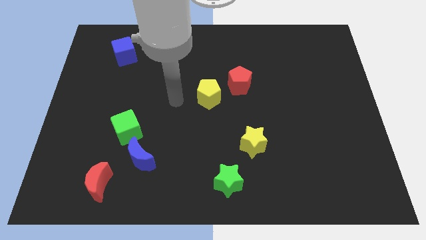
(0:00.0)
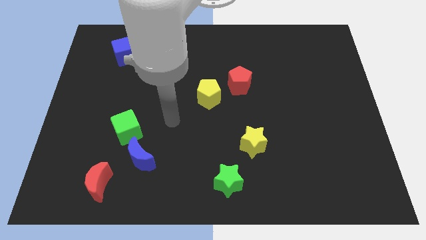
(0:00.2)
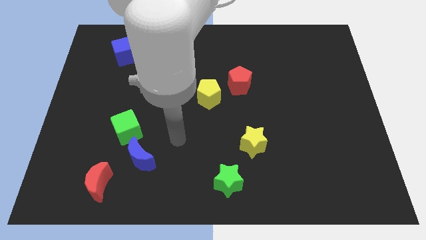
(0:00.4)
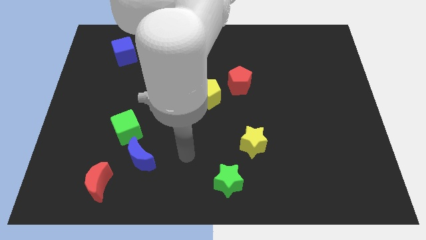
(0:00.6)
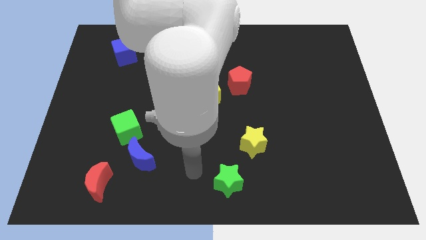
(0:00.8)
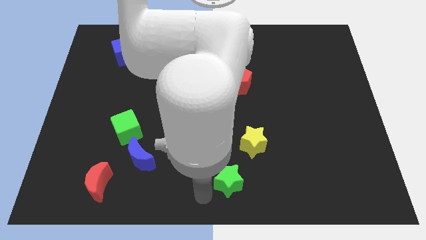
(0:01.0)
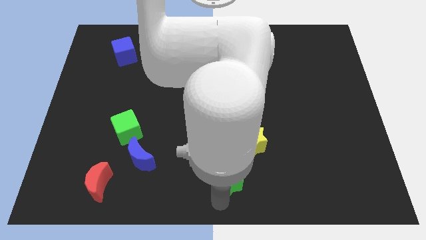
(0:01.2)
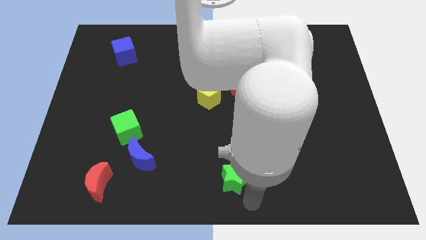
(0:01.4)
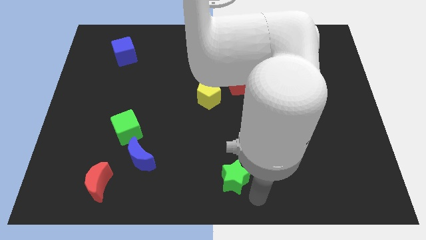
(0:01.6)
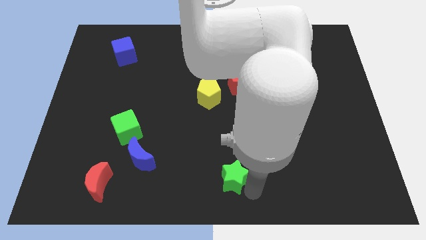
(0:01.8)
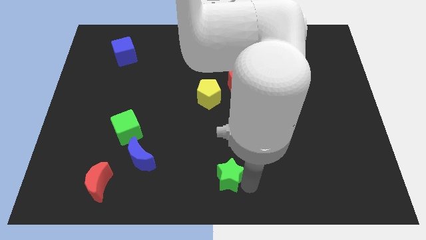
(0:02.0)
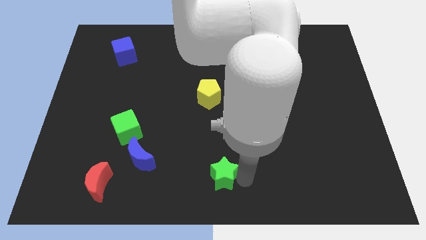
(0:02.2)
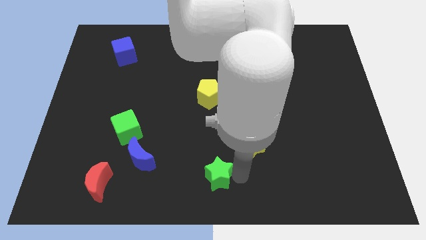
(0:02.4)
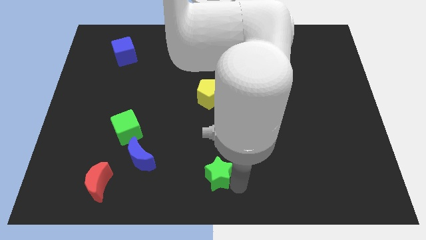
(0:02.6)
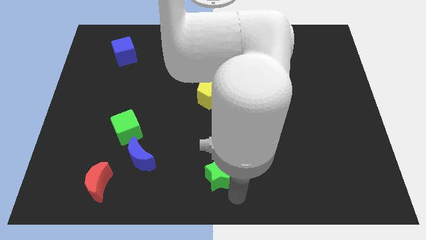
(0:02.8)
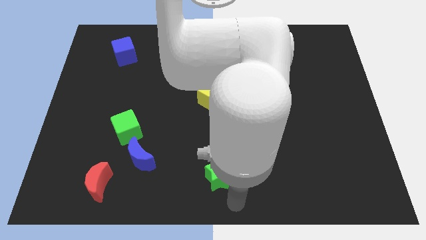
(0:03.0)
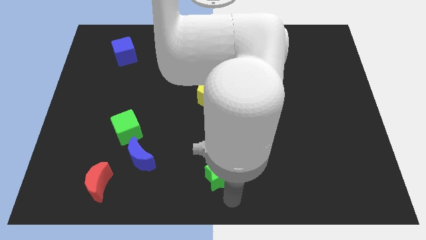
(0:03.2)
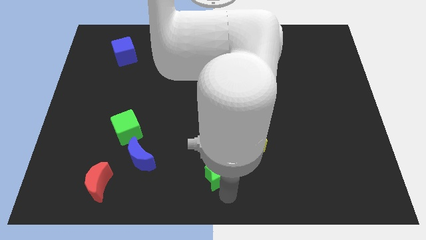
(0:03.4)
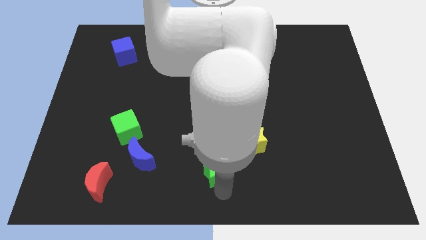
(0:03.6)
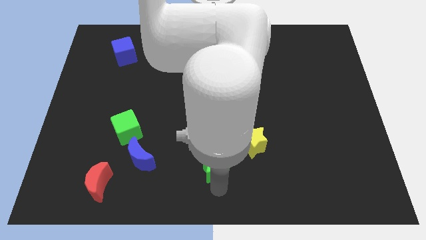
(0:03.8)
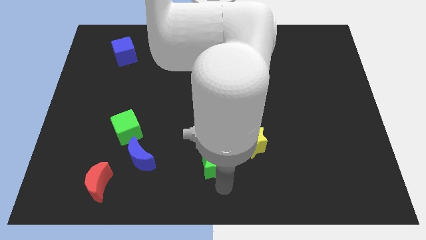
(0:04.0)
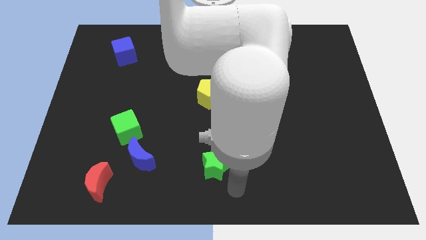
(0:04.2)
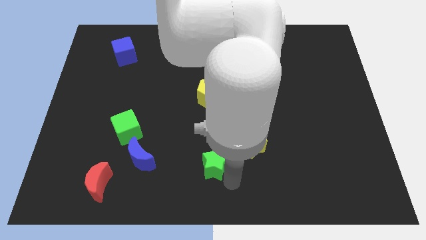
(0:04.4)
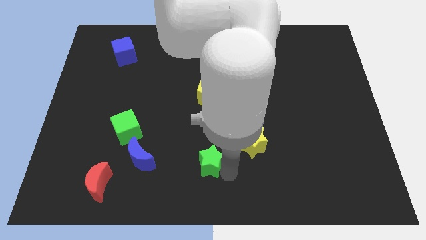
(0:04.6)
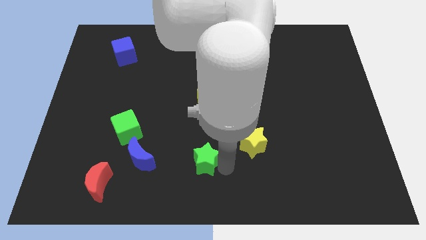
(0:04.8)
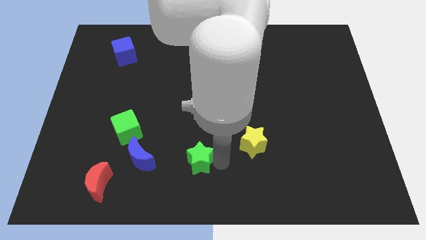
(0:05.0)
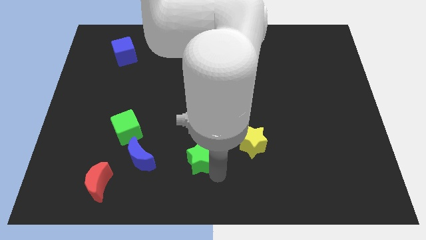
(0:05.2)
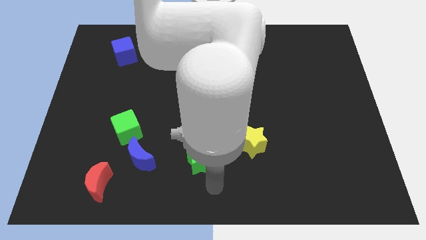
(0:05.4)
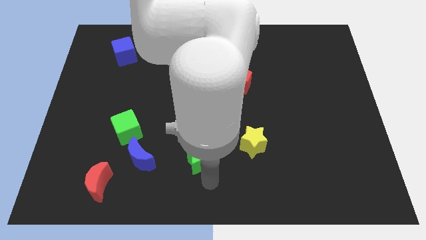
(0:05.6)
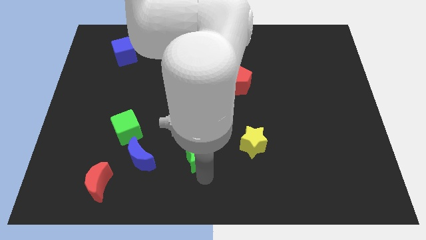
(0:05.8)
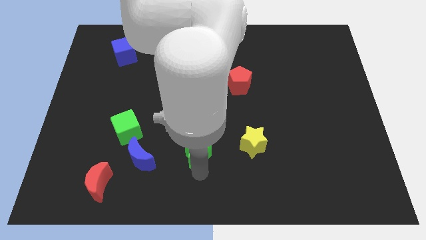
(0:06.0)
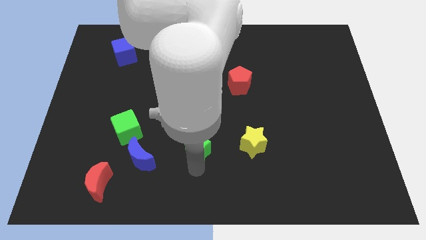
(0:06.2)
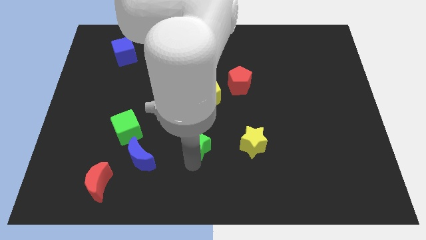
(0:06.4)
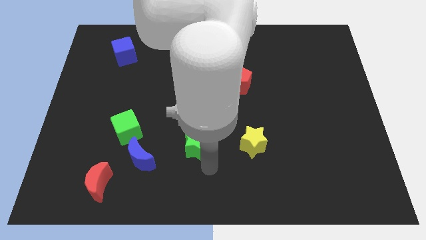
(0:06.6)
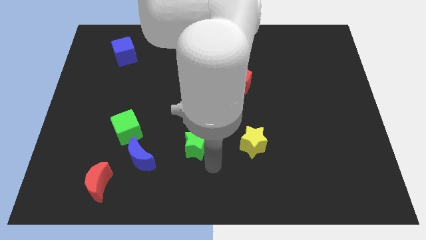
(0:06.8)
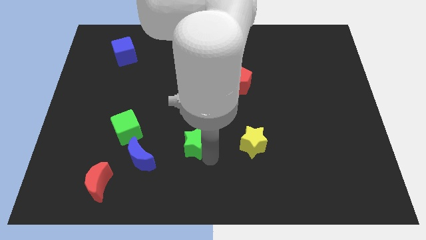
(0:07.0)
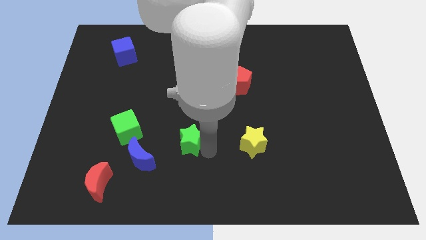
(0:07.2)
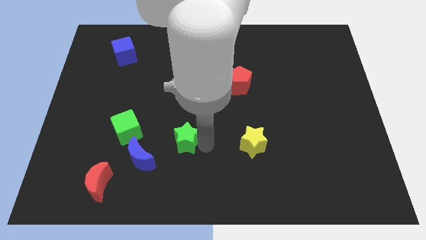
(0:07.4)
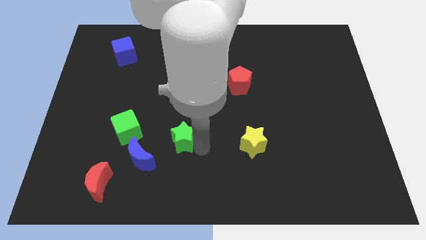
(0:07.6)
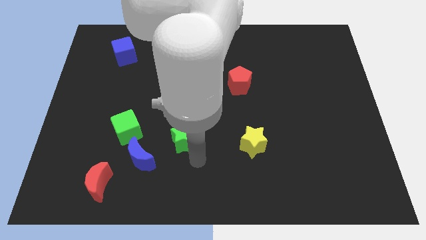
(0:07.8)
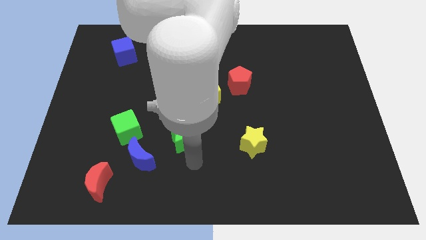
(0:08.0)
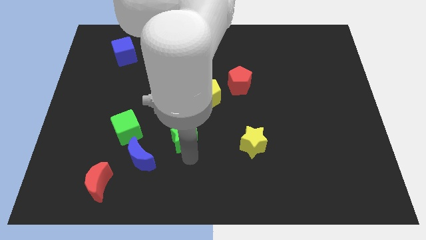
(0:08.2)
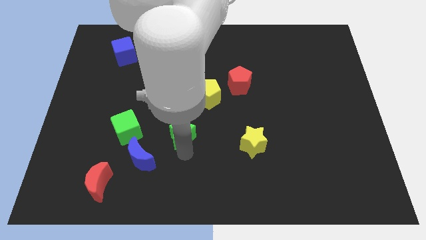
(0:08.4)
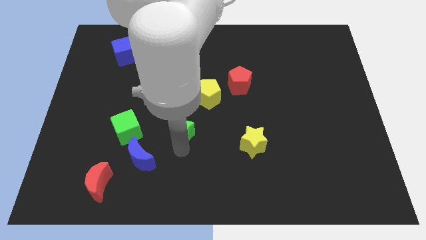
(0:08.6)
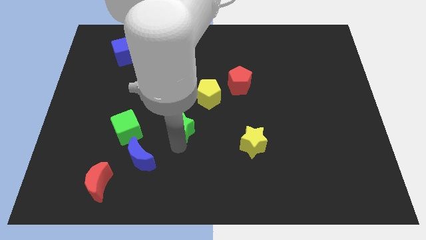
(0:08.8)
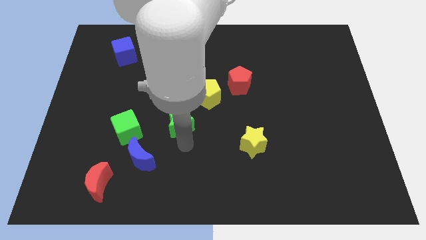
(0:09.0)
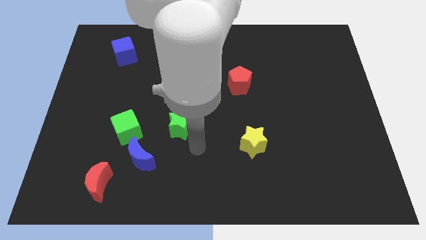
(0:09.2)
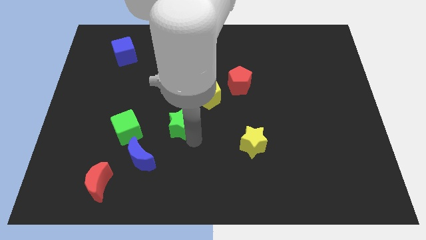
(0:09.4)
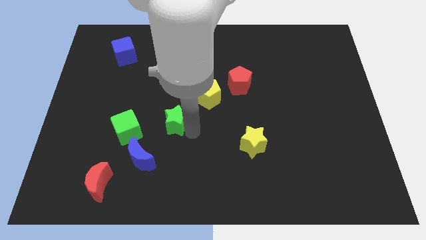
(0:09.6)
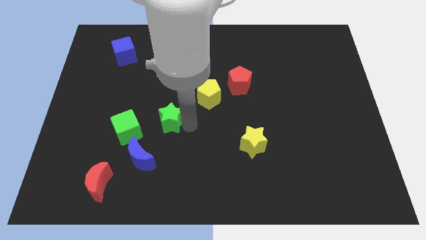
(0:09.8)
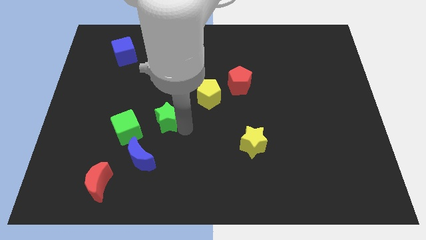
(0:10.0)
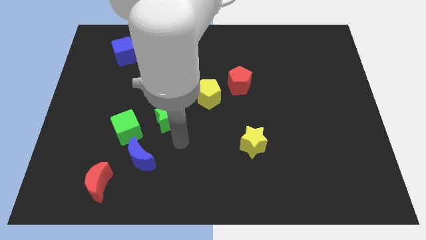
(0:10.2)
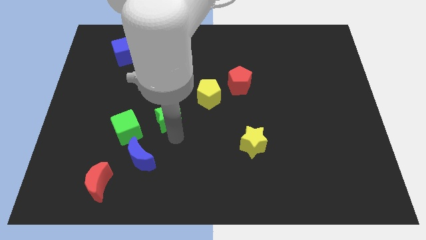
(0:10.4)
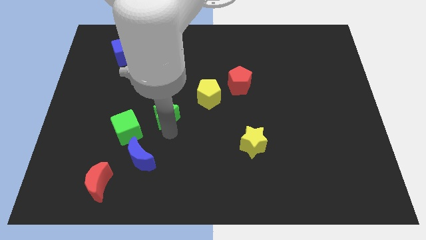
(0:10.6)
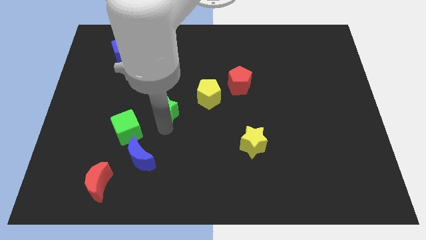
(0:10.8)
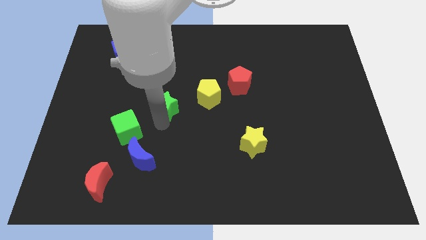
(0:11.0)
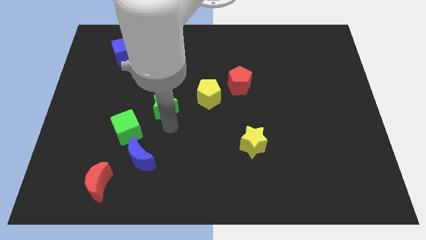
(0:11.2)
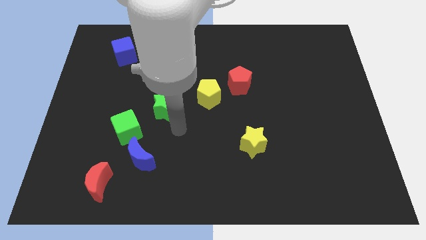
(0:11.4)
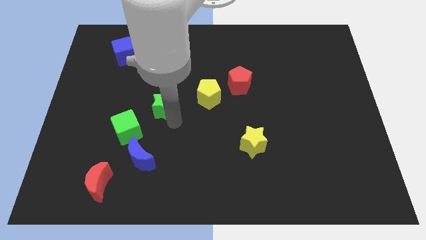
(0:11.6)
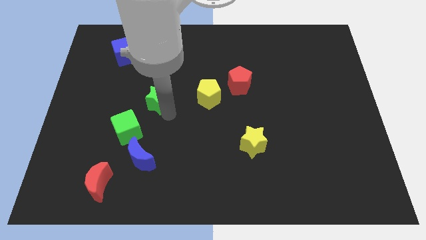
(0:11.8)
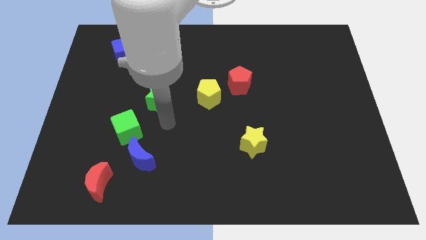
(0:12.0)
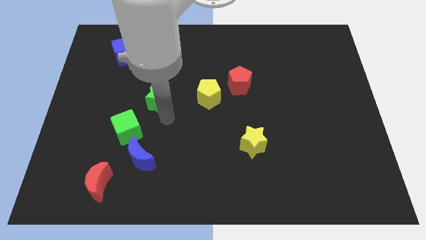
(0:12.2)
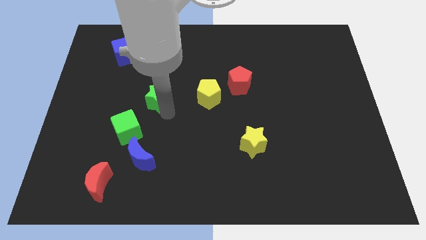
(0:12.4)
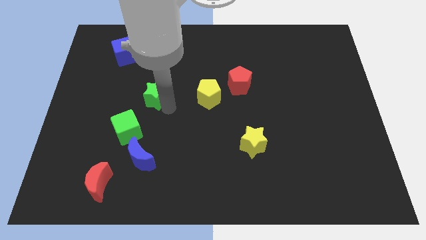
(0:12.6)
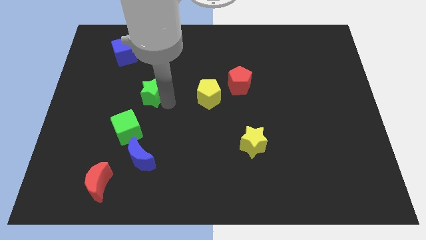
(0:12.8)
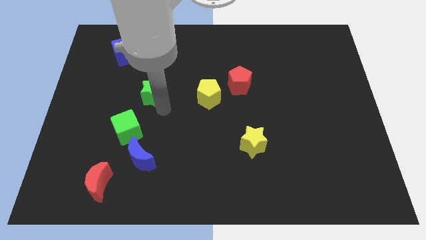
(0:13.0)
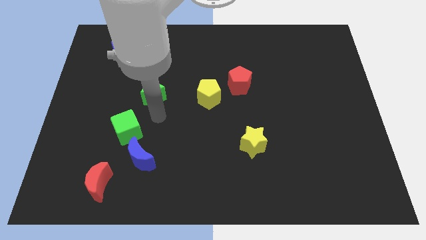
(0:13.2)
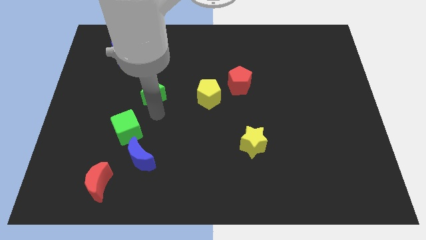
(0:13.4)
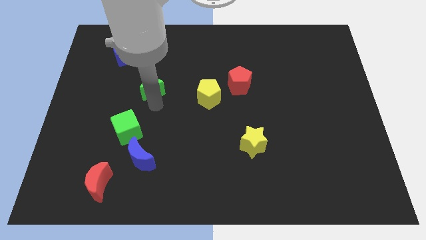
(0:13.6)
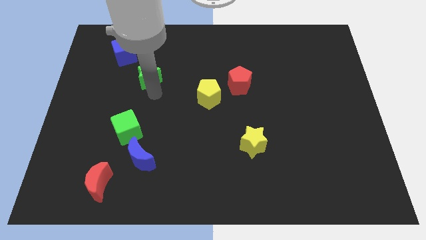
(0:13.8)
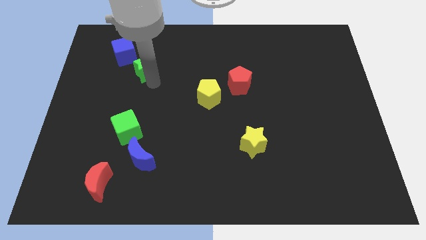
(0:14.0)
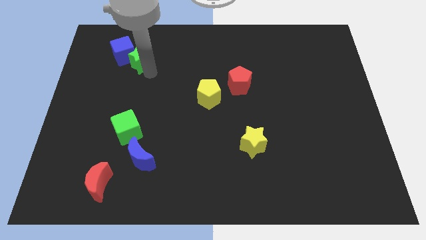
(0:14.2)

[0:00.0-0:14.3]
push the green star towards the blue cube
